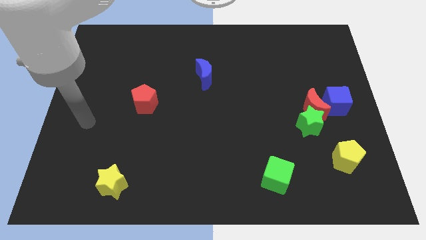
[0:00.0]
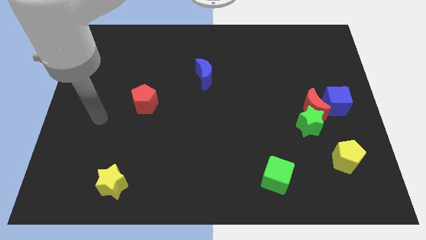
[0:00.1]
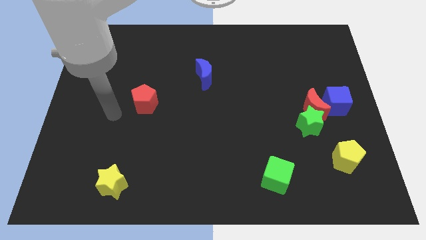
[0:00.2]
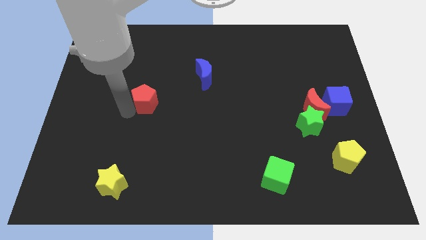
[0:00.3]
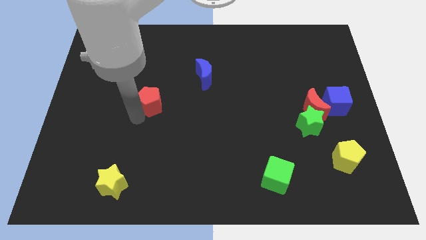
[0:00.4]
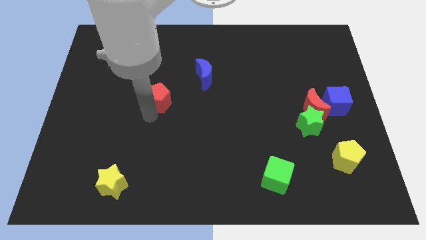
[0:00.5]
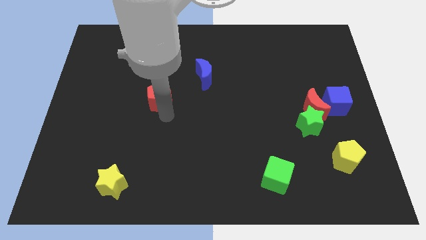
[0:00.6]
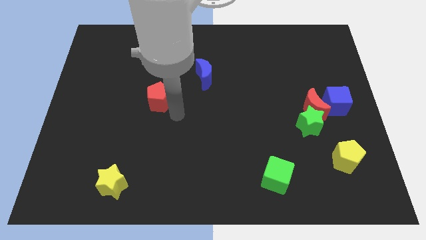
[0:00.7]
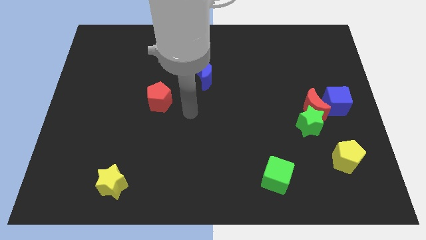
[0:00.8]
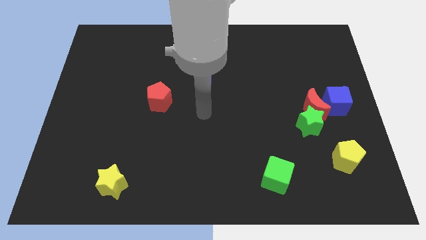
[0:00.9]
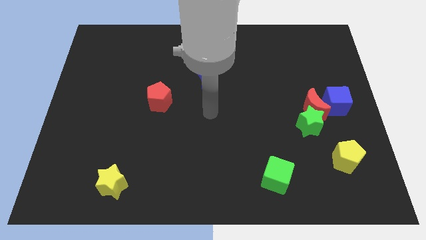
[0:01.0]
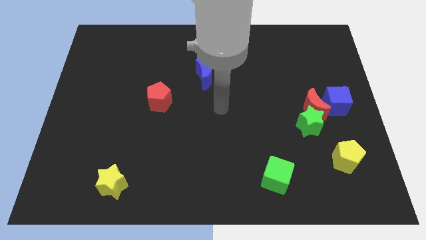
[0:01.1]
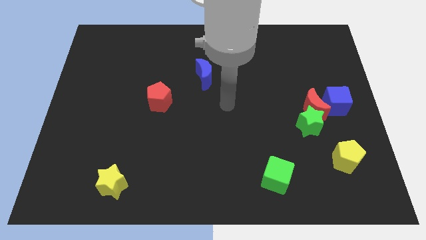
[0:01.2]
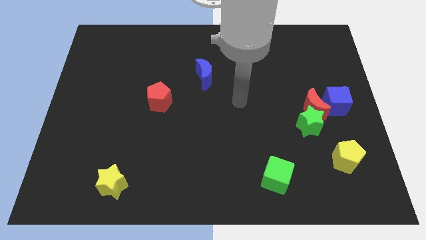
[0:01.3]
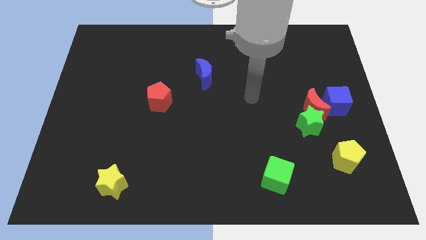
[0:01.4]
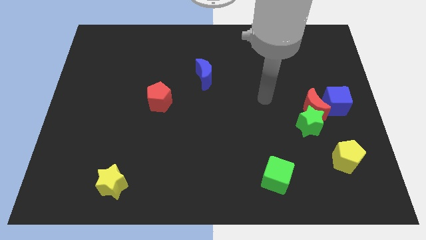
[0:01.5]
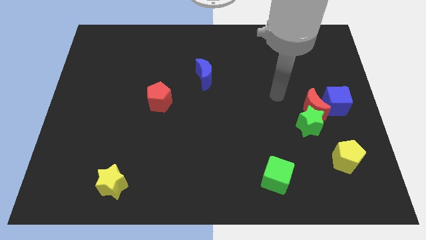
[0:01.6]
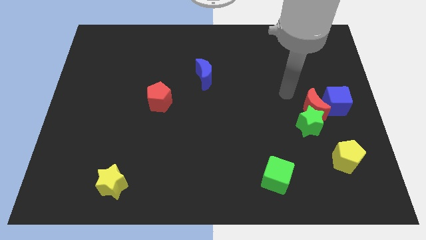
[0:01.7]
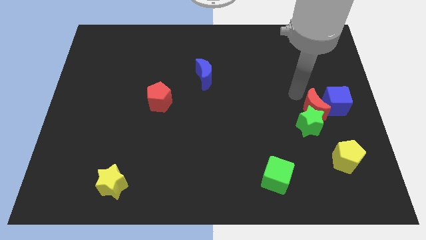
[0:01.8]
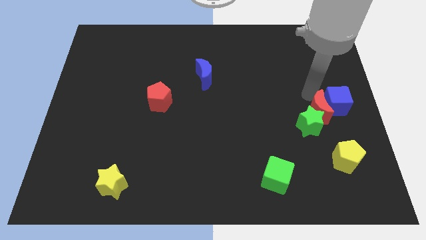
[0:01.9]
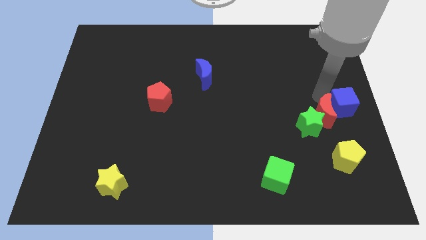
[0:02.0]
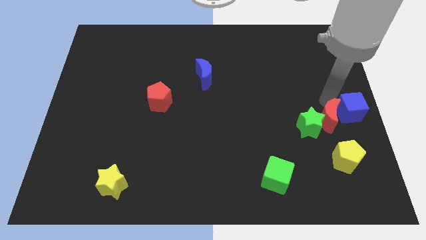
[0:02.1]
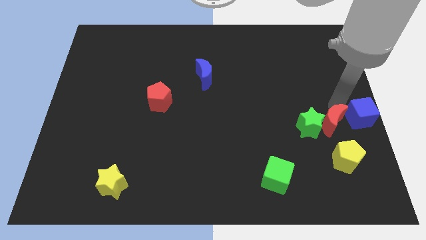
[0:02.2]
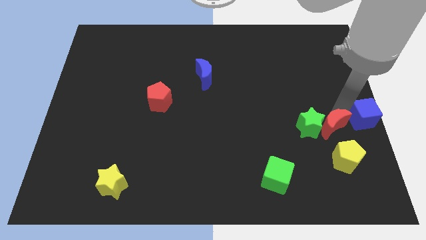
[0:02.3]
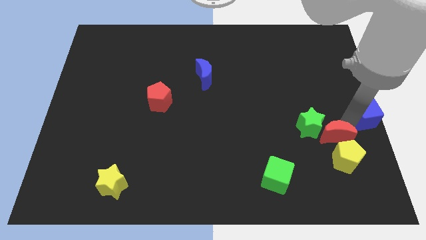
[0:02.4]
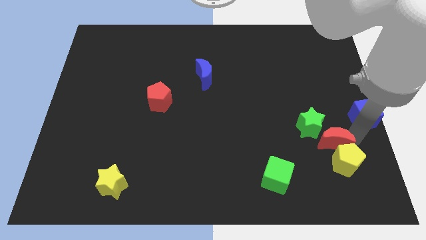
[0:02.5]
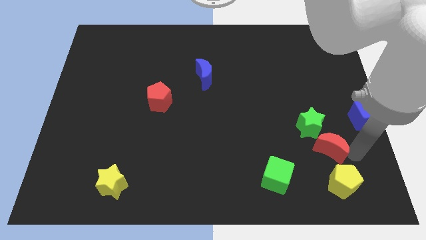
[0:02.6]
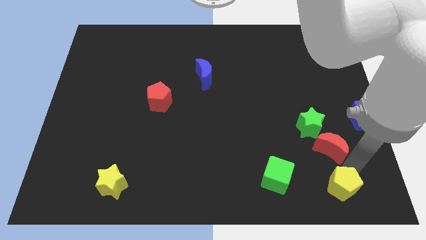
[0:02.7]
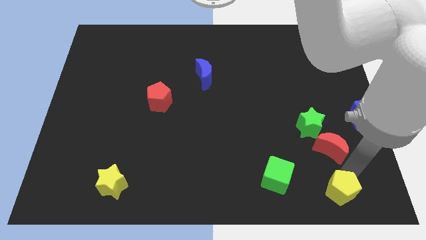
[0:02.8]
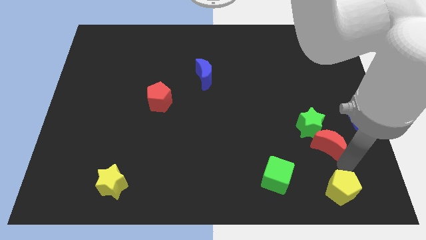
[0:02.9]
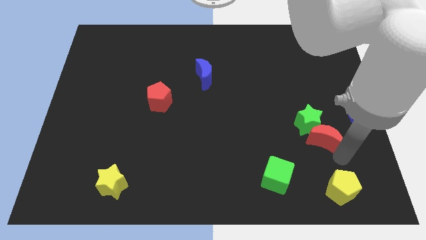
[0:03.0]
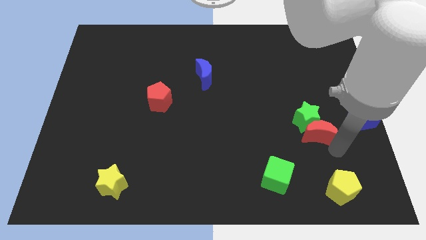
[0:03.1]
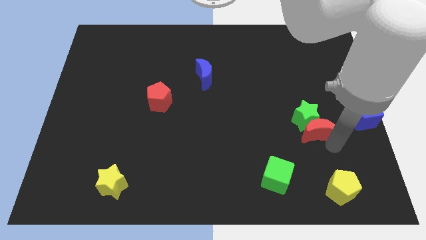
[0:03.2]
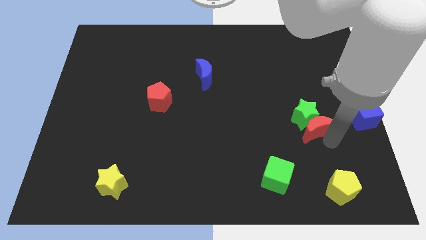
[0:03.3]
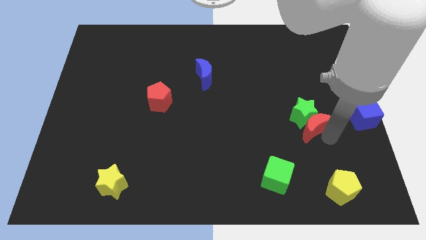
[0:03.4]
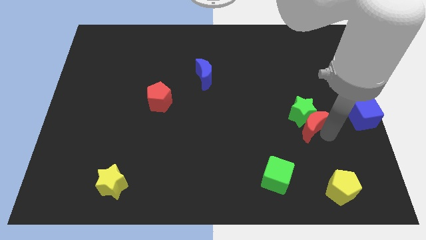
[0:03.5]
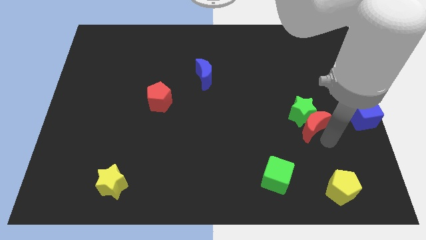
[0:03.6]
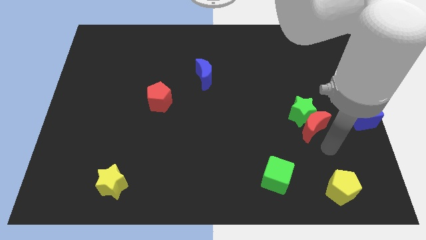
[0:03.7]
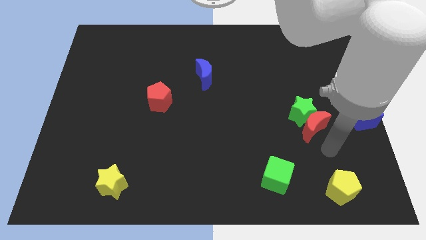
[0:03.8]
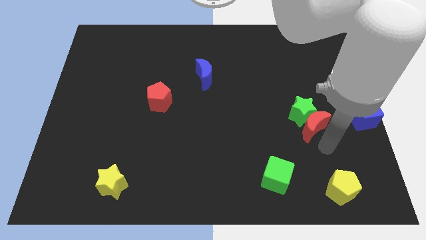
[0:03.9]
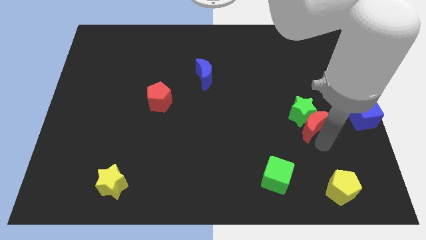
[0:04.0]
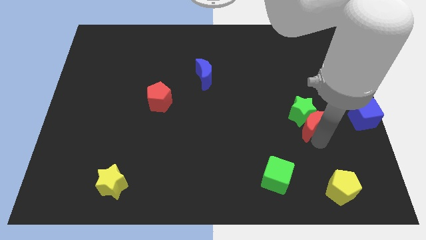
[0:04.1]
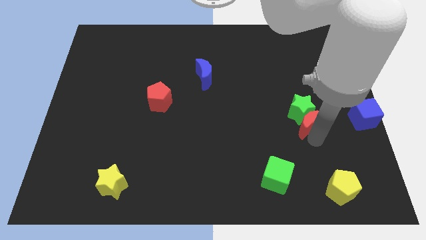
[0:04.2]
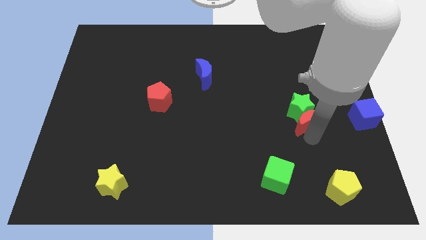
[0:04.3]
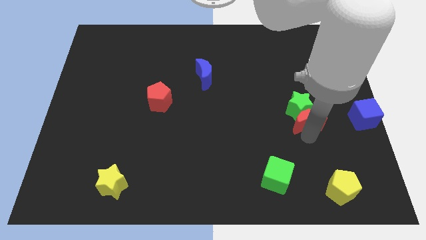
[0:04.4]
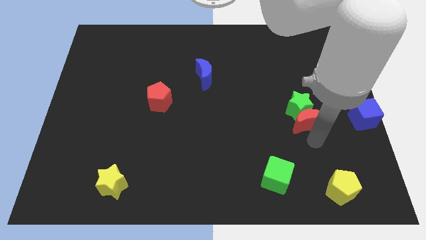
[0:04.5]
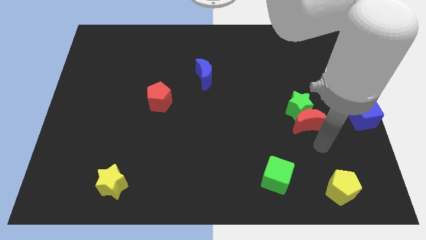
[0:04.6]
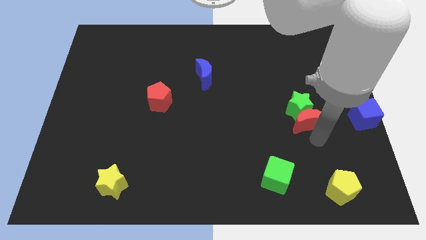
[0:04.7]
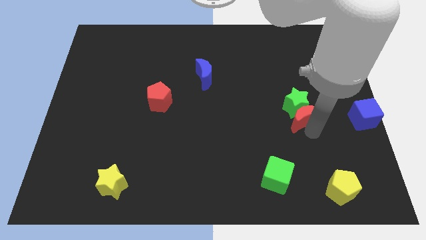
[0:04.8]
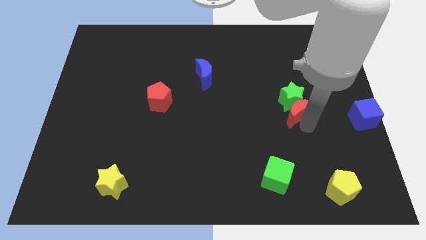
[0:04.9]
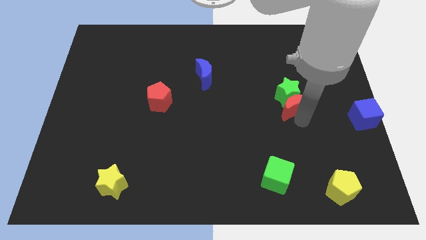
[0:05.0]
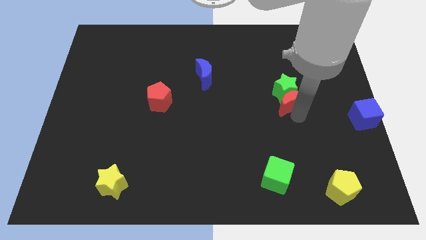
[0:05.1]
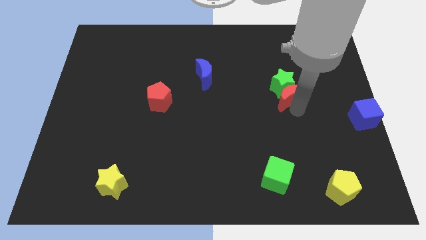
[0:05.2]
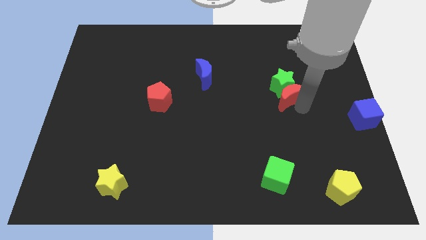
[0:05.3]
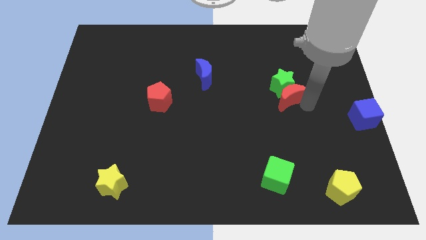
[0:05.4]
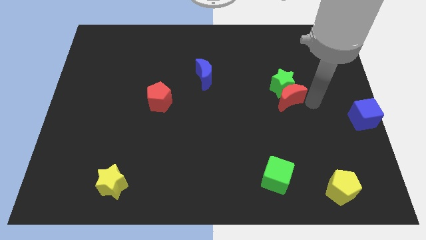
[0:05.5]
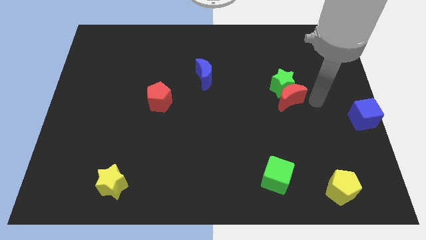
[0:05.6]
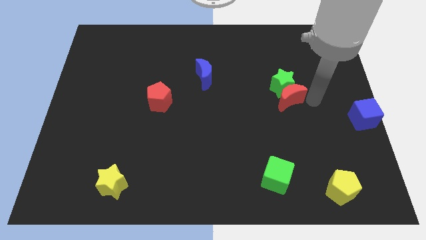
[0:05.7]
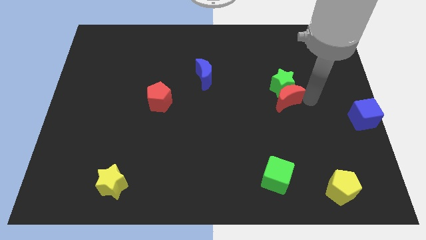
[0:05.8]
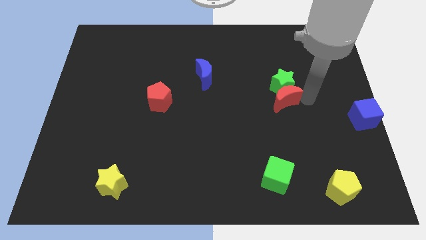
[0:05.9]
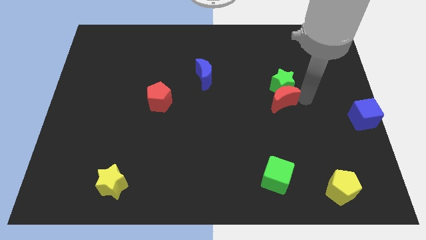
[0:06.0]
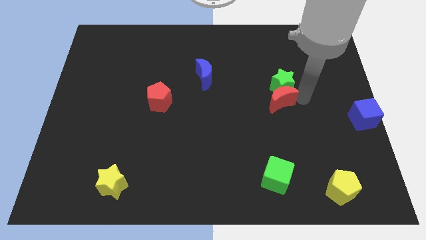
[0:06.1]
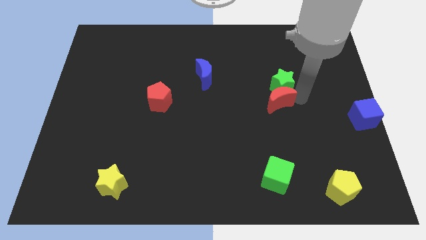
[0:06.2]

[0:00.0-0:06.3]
move the red moon away from the green star and blue cube

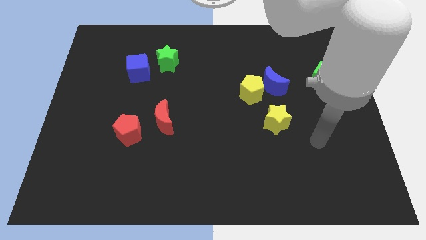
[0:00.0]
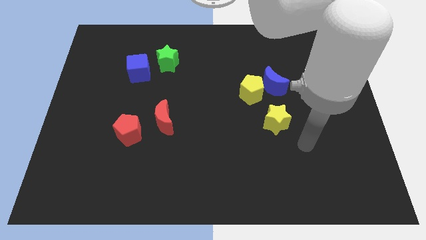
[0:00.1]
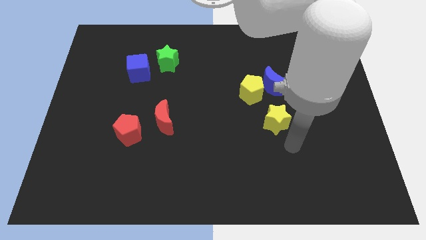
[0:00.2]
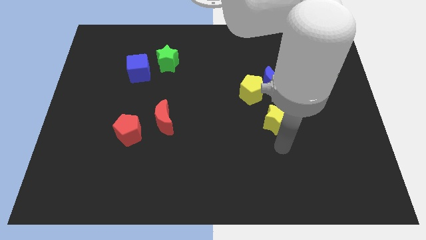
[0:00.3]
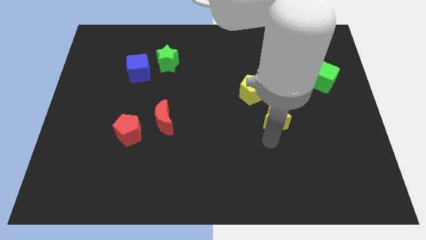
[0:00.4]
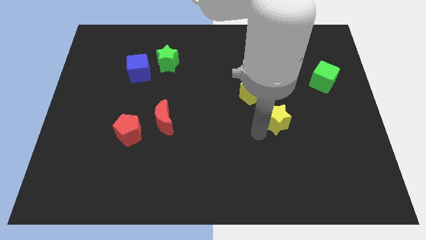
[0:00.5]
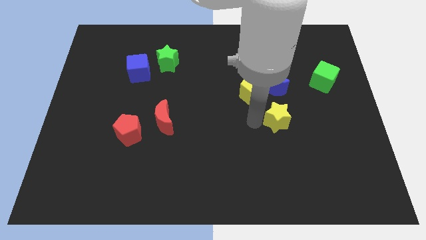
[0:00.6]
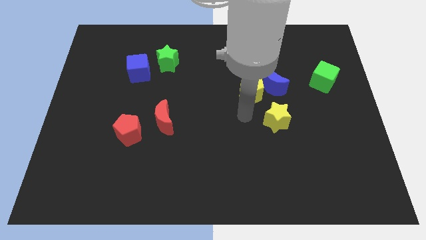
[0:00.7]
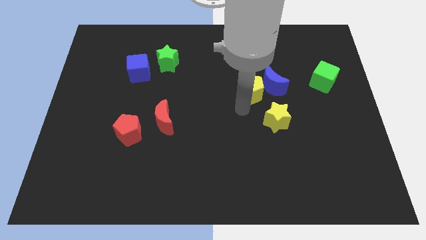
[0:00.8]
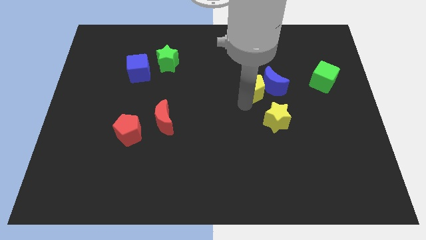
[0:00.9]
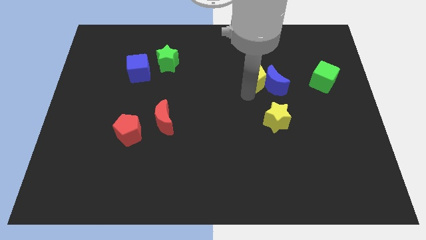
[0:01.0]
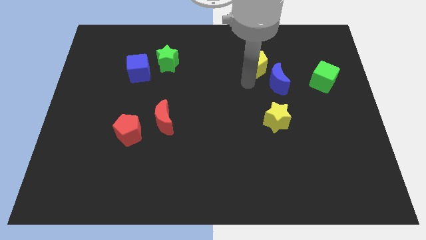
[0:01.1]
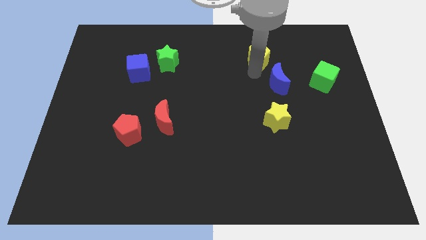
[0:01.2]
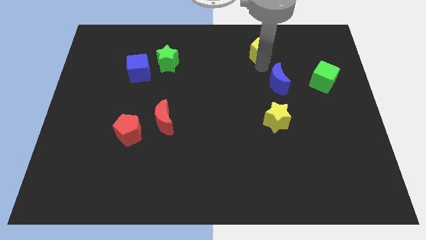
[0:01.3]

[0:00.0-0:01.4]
separate the blue moon from the yellow pentagon

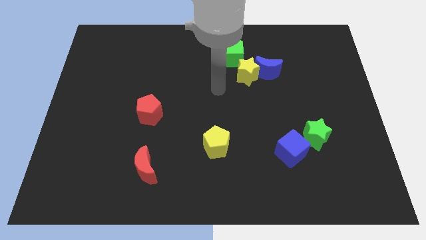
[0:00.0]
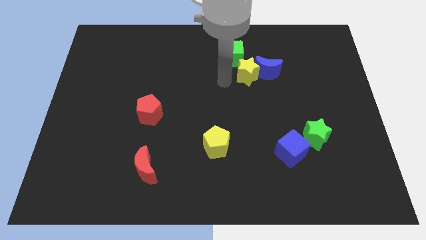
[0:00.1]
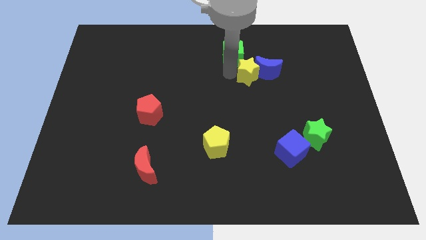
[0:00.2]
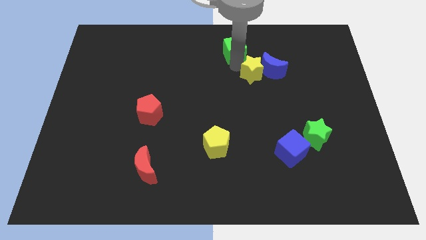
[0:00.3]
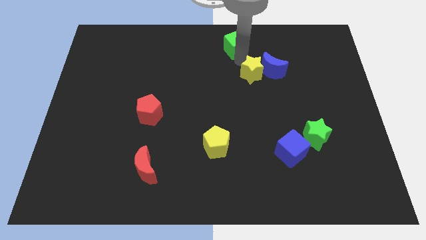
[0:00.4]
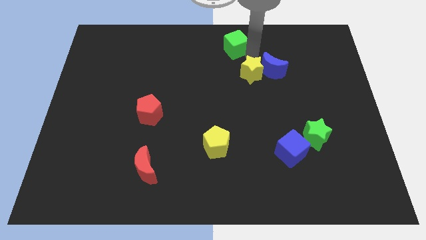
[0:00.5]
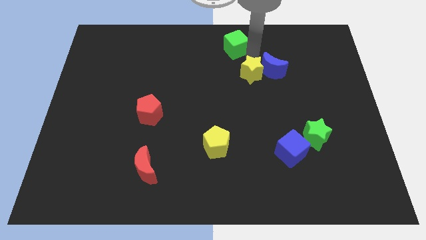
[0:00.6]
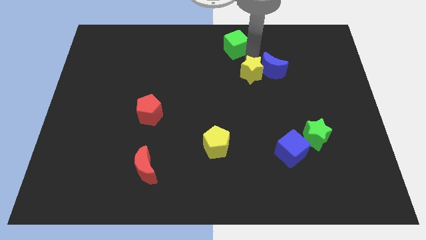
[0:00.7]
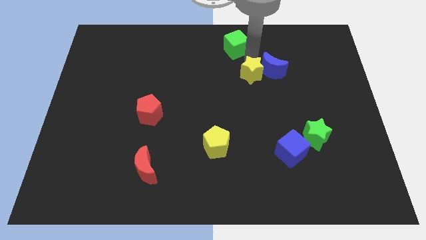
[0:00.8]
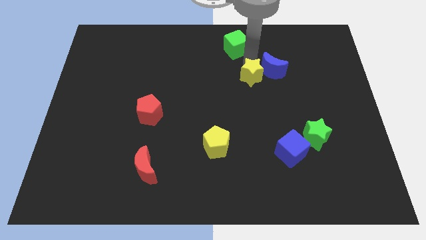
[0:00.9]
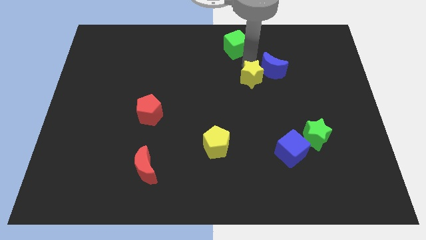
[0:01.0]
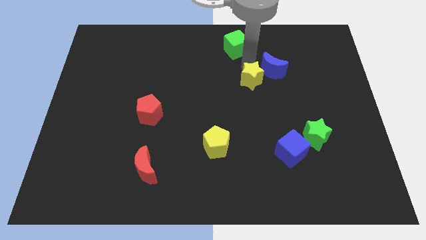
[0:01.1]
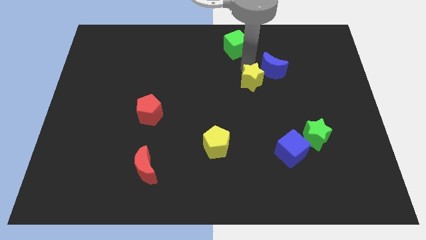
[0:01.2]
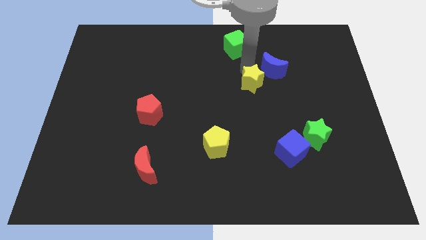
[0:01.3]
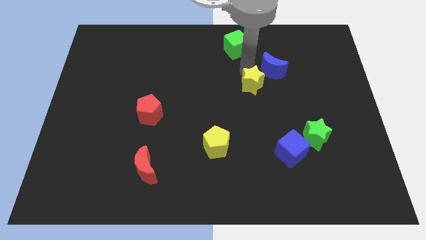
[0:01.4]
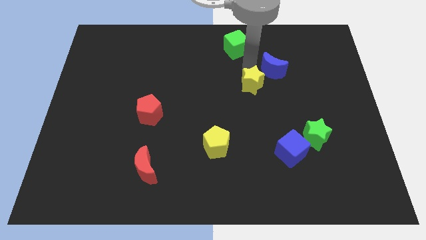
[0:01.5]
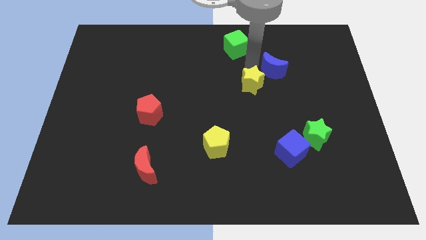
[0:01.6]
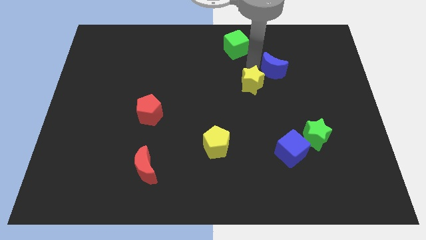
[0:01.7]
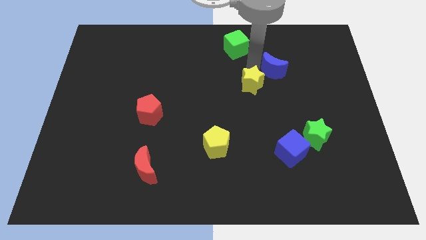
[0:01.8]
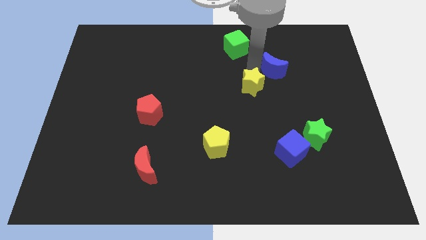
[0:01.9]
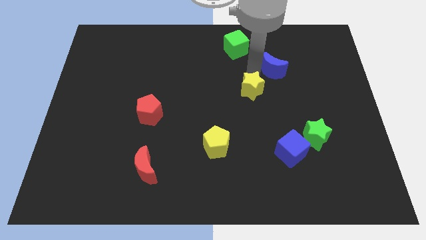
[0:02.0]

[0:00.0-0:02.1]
pull the yellow star apart from the blue moon and green cube
